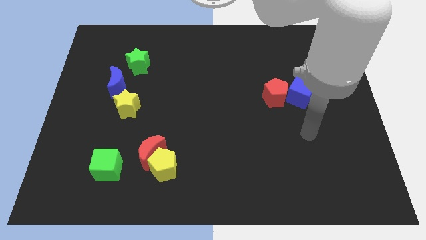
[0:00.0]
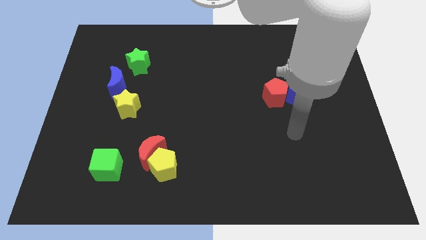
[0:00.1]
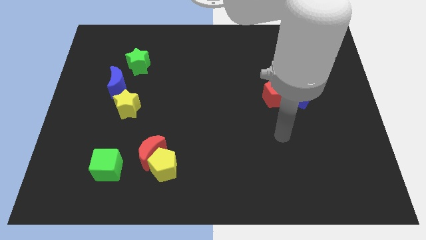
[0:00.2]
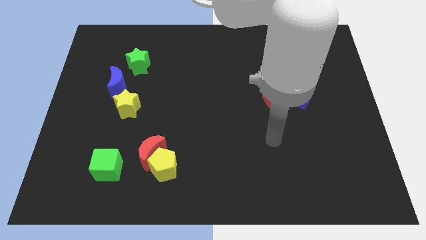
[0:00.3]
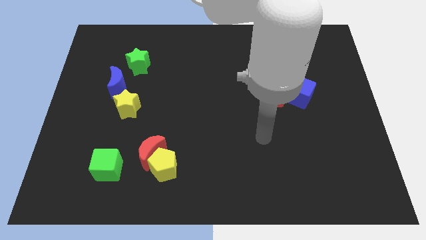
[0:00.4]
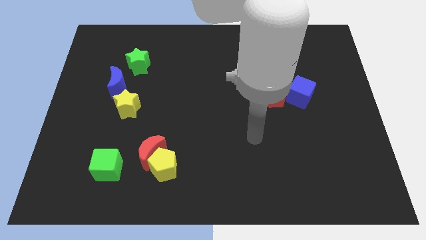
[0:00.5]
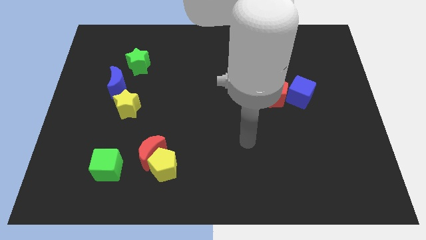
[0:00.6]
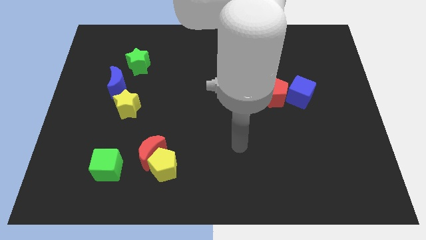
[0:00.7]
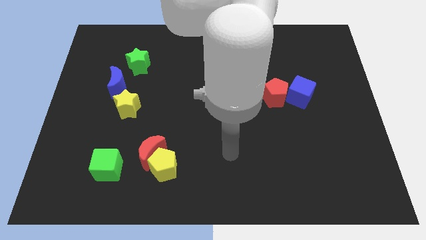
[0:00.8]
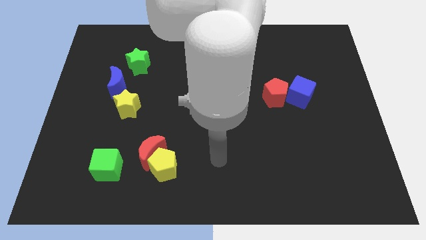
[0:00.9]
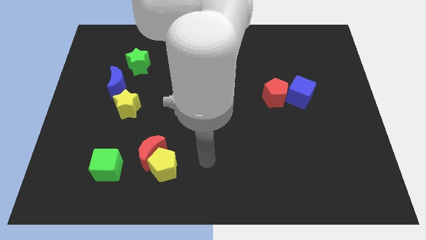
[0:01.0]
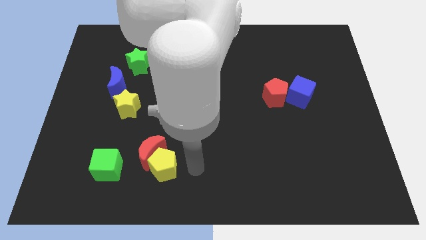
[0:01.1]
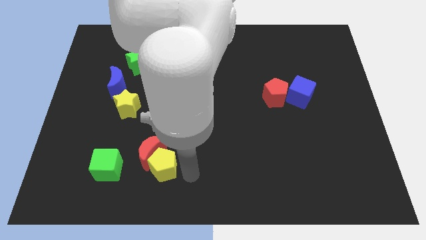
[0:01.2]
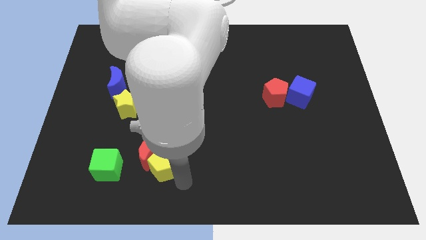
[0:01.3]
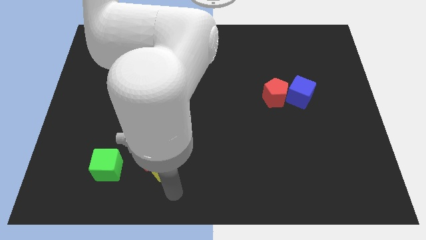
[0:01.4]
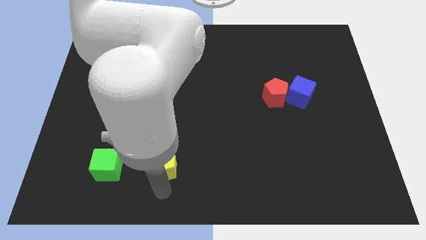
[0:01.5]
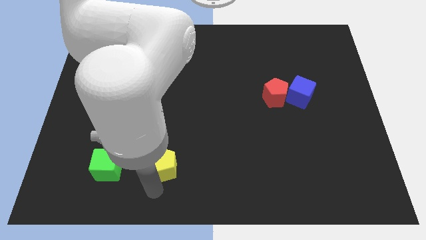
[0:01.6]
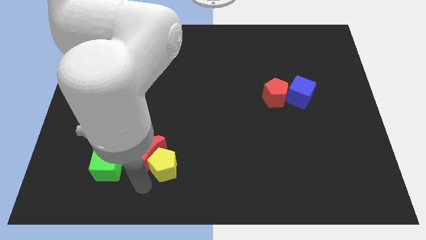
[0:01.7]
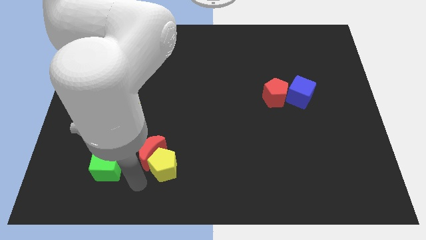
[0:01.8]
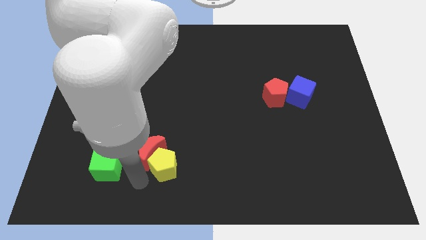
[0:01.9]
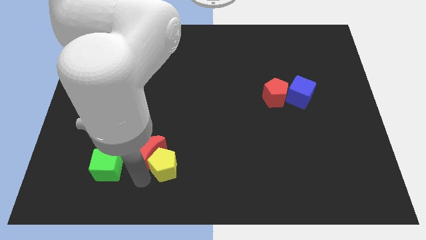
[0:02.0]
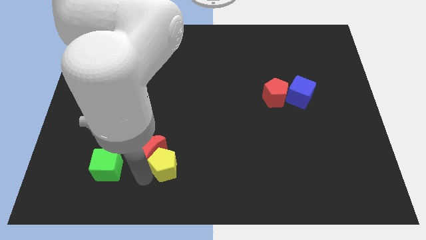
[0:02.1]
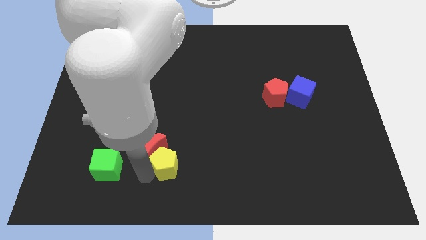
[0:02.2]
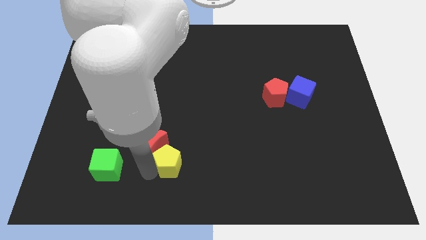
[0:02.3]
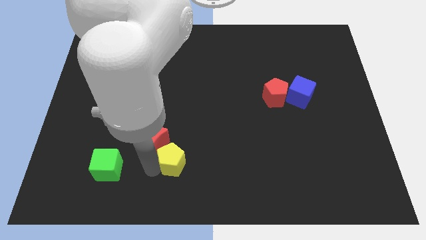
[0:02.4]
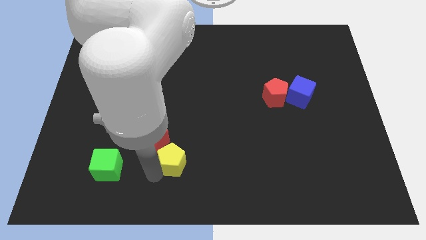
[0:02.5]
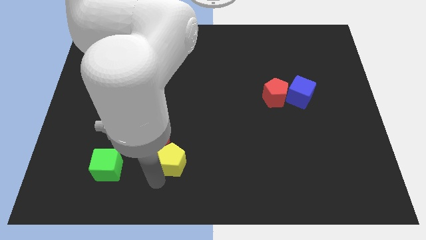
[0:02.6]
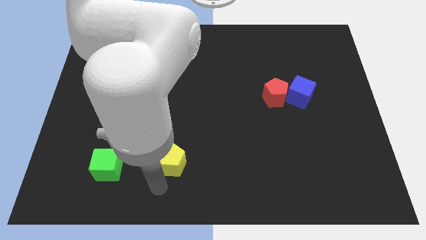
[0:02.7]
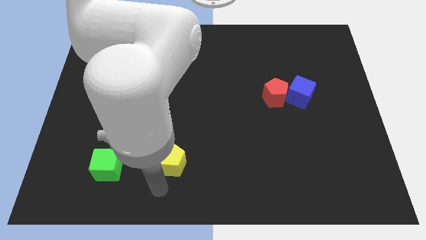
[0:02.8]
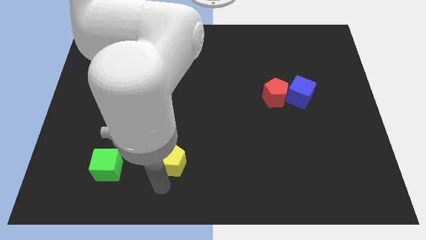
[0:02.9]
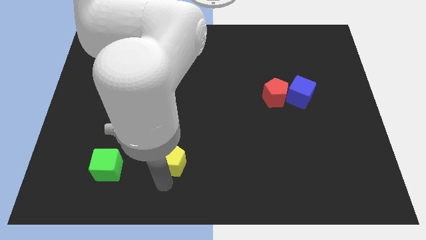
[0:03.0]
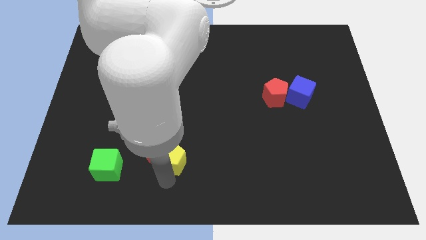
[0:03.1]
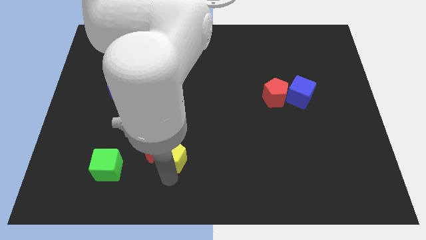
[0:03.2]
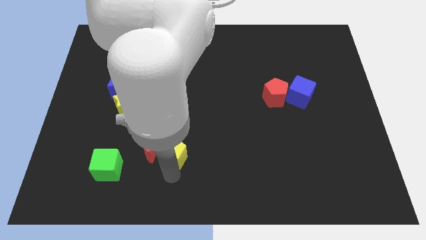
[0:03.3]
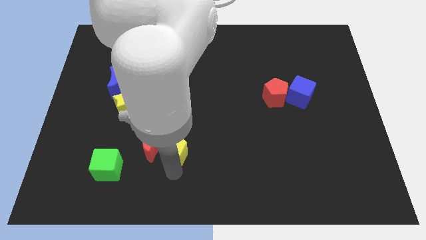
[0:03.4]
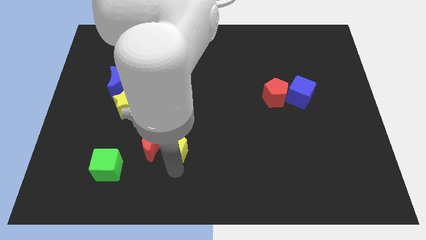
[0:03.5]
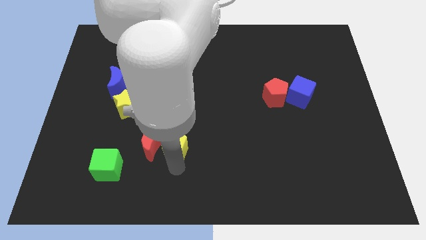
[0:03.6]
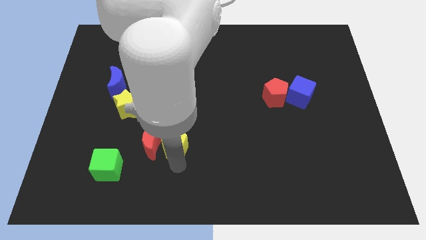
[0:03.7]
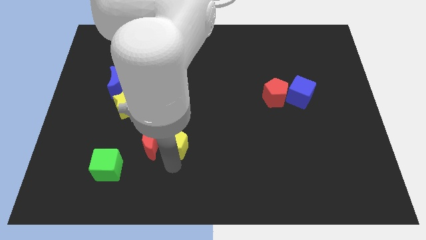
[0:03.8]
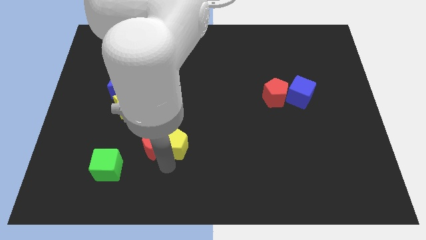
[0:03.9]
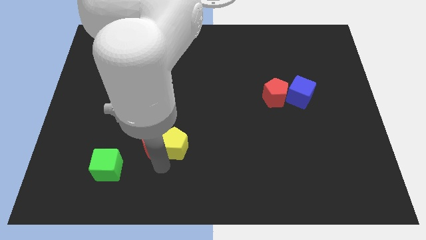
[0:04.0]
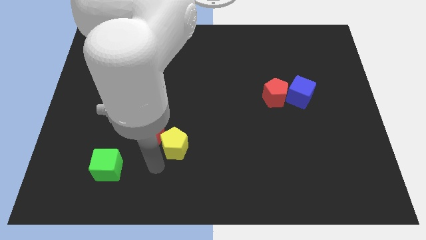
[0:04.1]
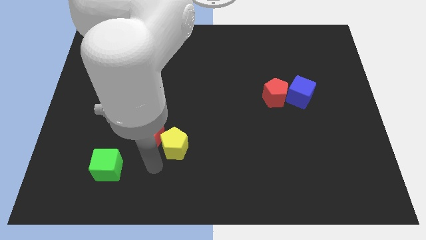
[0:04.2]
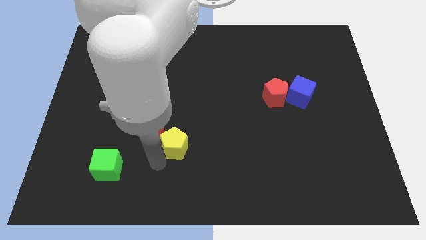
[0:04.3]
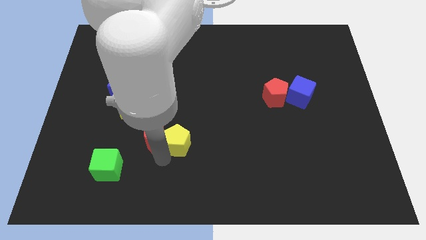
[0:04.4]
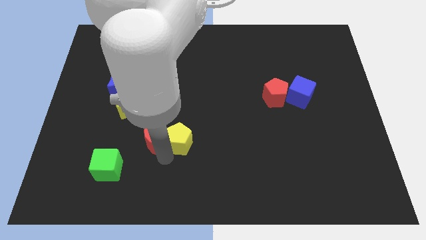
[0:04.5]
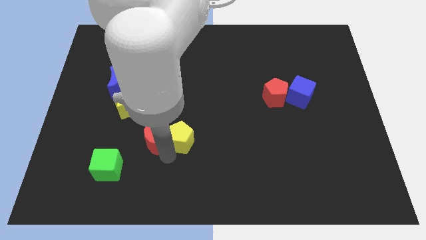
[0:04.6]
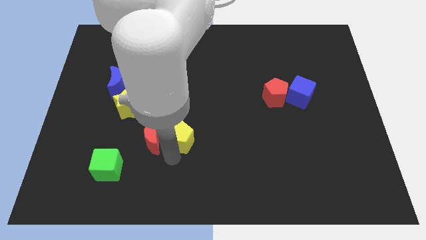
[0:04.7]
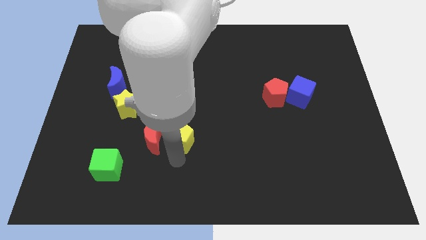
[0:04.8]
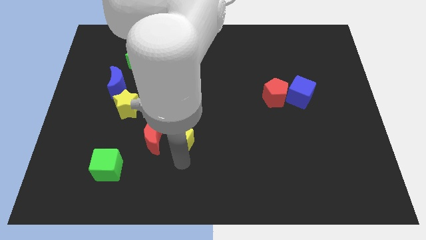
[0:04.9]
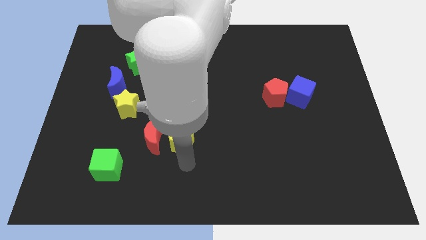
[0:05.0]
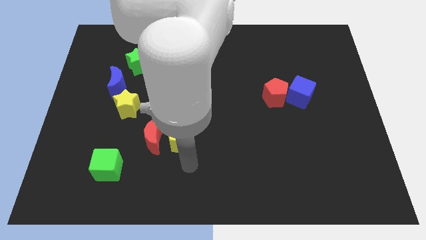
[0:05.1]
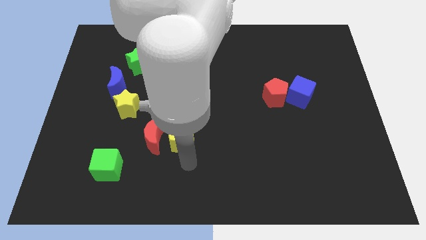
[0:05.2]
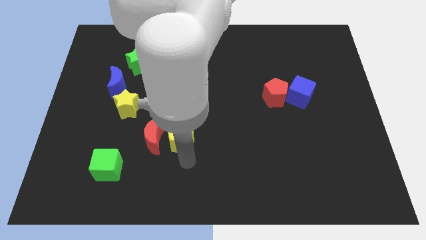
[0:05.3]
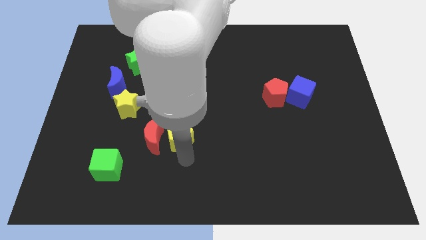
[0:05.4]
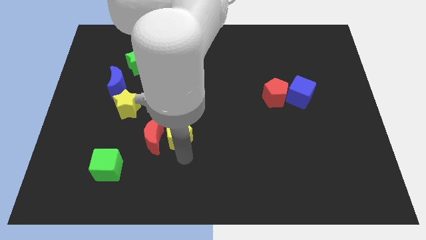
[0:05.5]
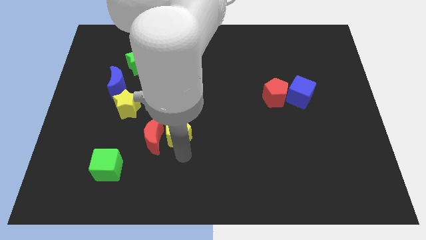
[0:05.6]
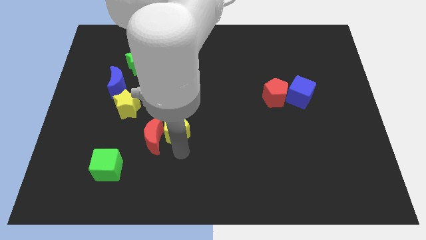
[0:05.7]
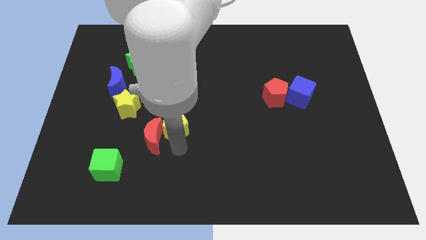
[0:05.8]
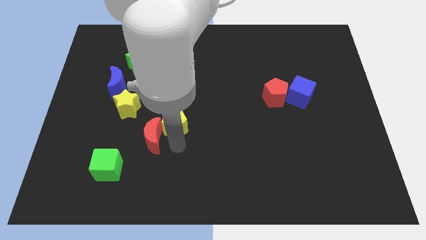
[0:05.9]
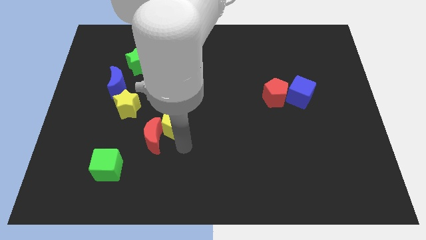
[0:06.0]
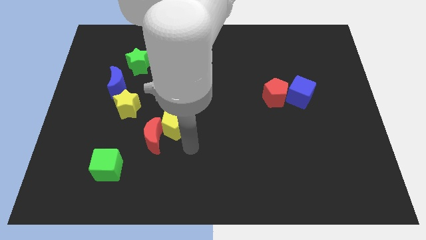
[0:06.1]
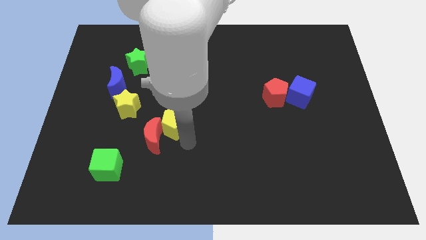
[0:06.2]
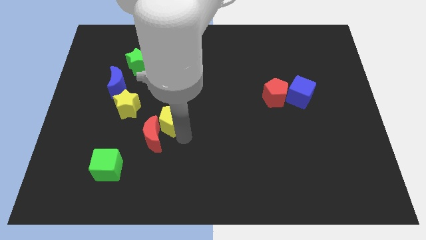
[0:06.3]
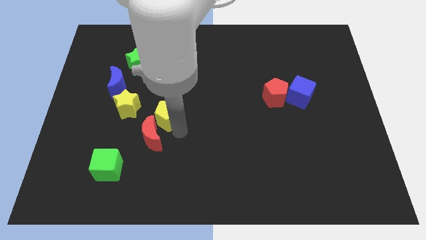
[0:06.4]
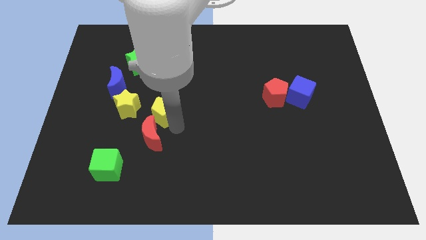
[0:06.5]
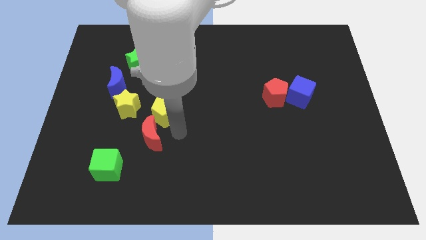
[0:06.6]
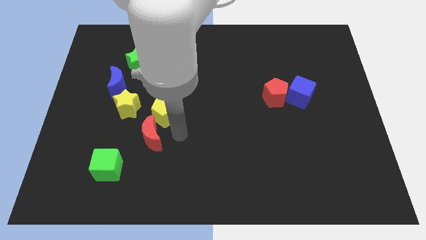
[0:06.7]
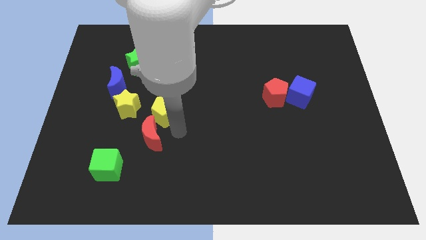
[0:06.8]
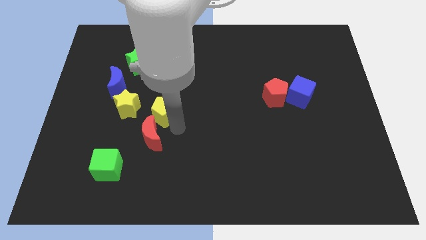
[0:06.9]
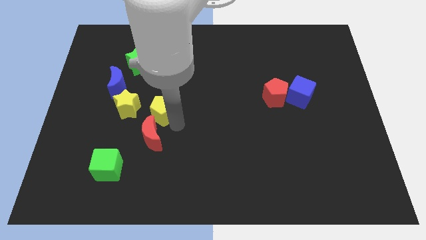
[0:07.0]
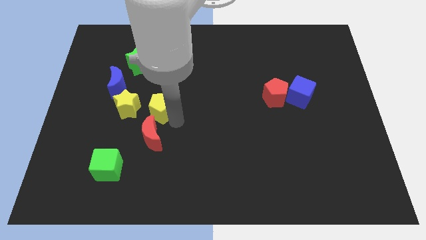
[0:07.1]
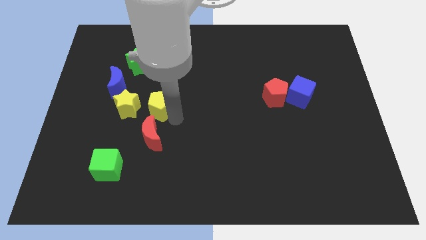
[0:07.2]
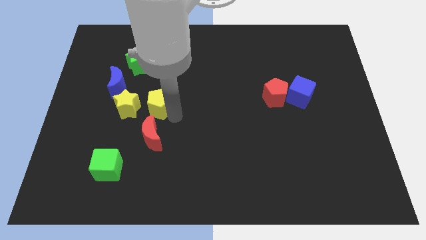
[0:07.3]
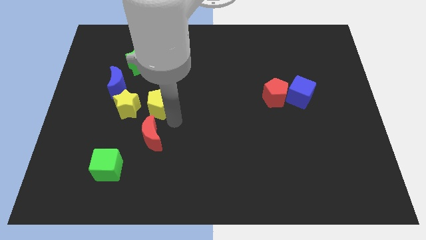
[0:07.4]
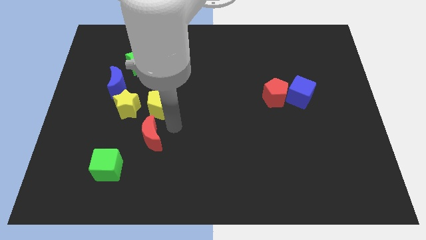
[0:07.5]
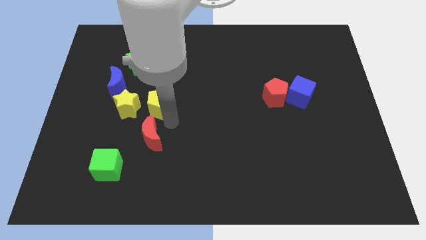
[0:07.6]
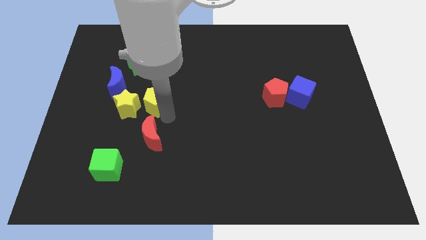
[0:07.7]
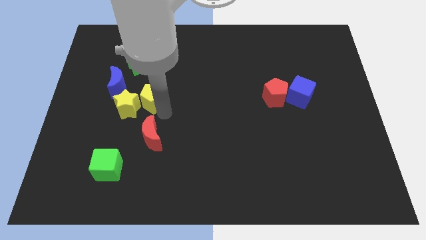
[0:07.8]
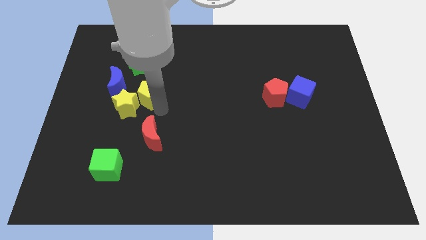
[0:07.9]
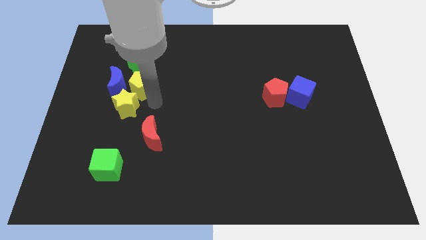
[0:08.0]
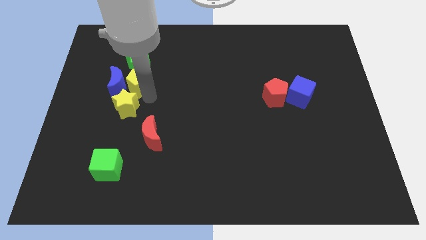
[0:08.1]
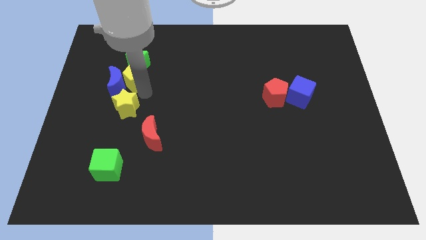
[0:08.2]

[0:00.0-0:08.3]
push the yellow pentagon next to the green star
